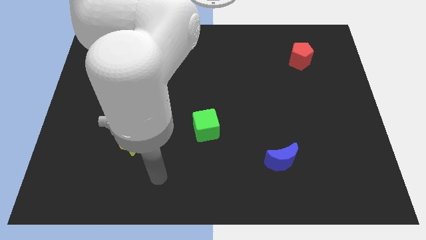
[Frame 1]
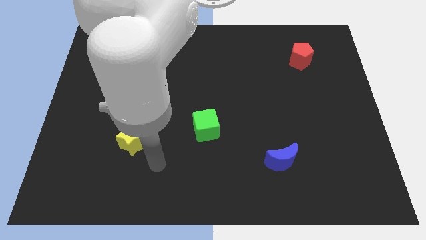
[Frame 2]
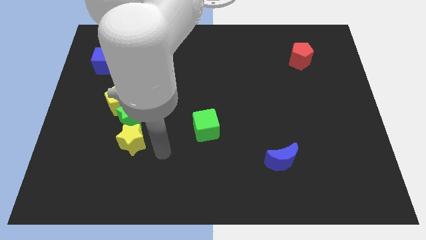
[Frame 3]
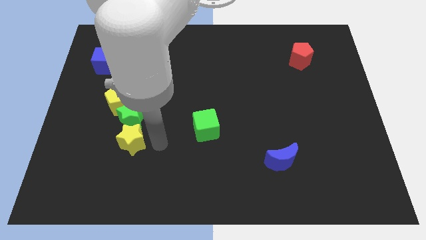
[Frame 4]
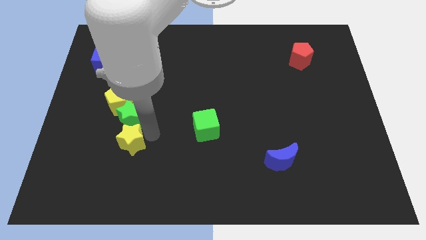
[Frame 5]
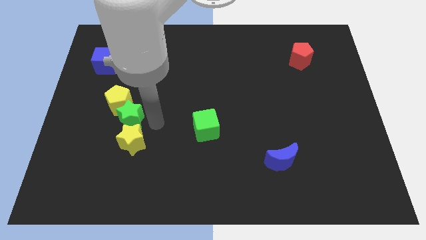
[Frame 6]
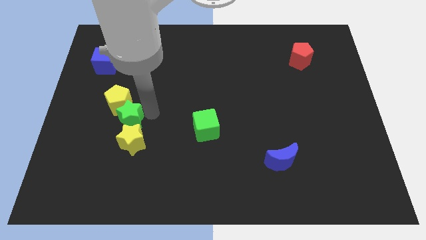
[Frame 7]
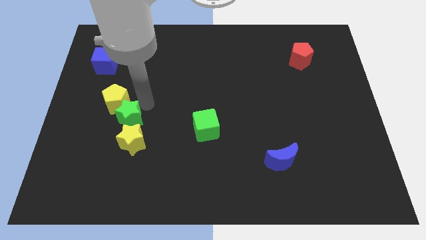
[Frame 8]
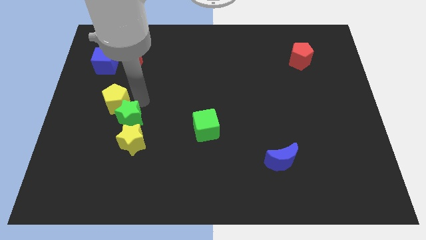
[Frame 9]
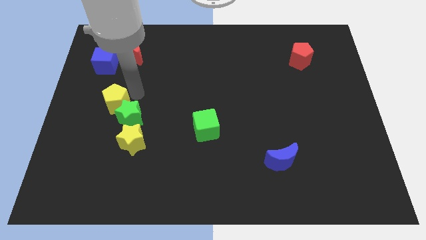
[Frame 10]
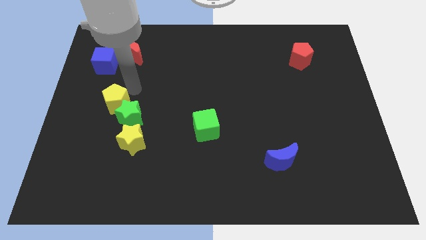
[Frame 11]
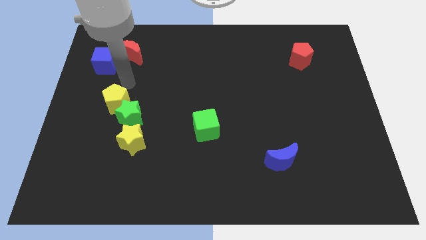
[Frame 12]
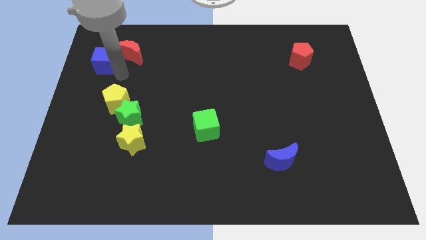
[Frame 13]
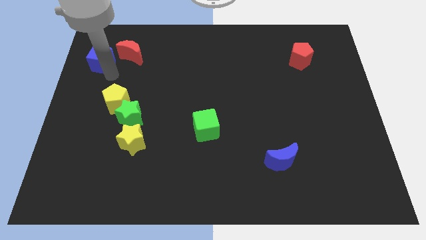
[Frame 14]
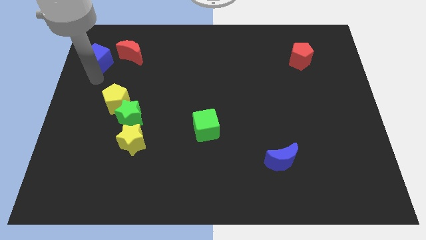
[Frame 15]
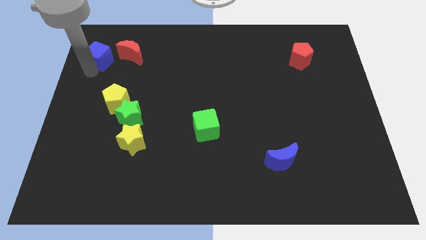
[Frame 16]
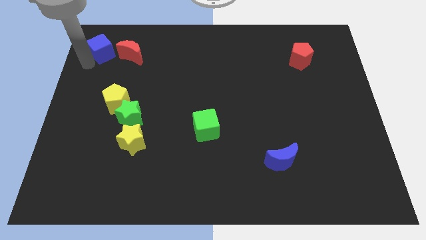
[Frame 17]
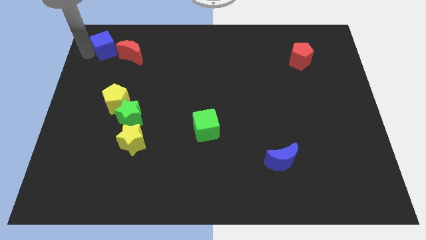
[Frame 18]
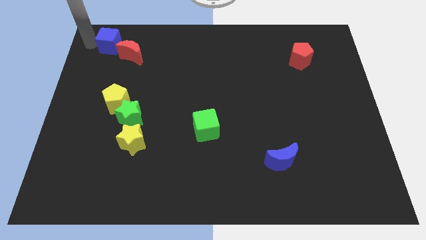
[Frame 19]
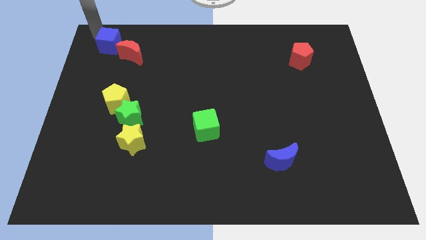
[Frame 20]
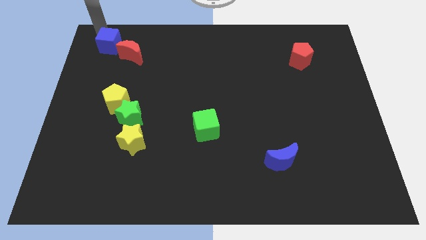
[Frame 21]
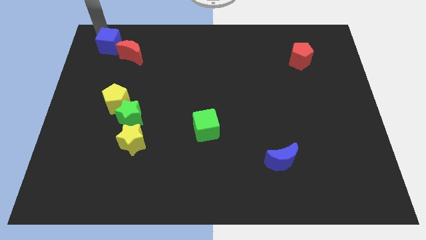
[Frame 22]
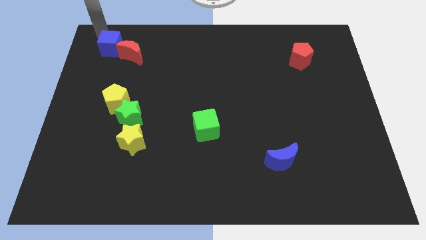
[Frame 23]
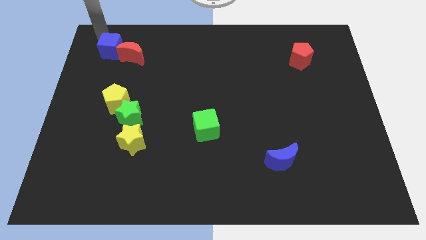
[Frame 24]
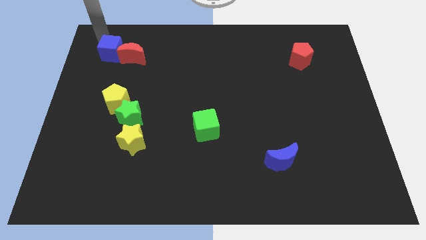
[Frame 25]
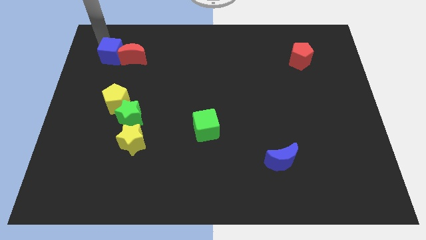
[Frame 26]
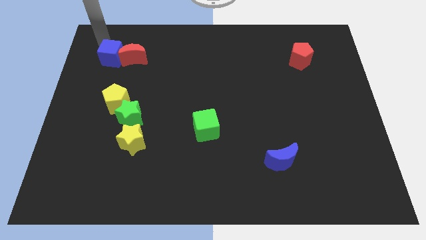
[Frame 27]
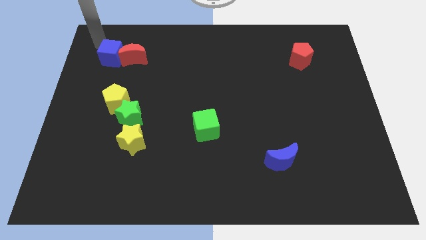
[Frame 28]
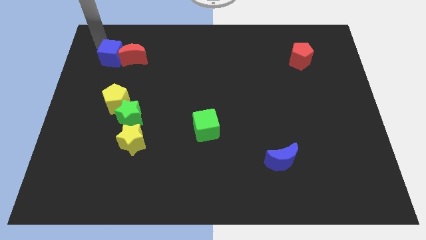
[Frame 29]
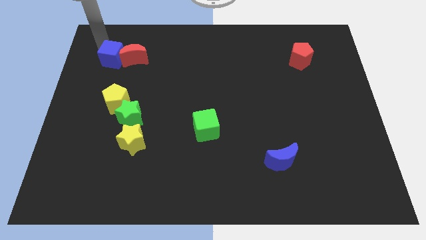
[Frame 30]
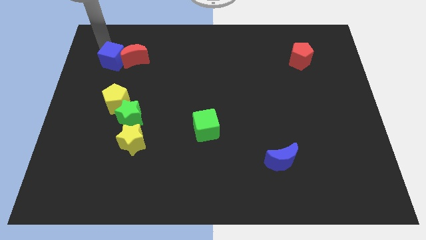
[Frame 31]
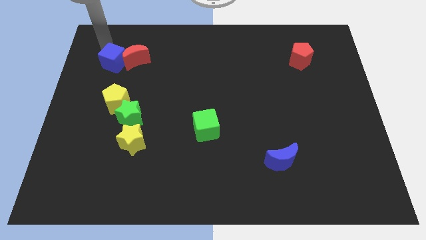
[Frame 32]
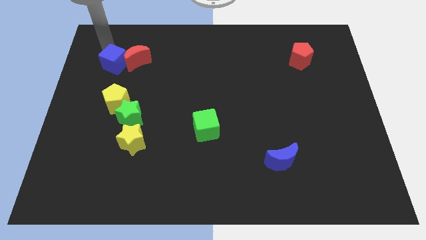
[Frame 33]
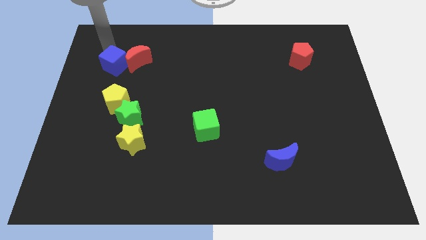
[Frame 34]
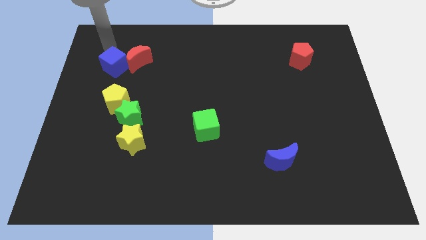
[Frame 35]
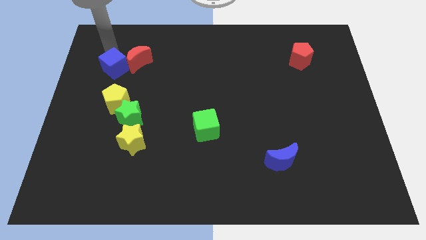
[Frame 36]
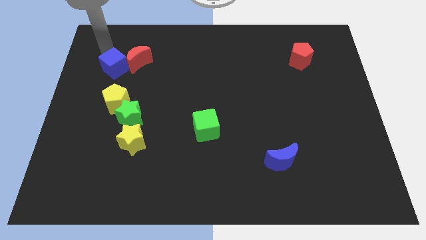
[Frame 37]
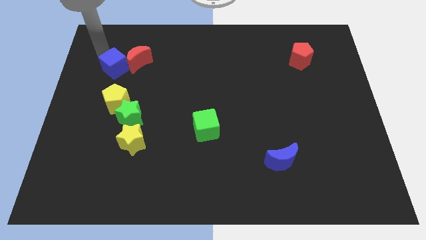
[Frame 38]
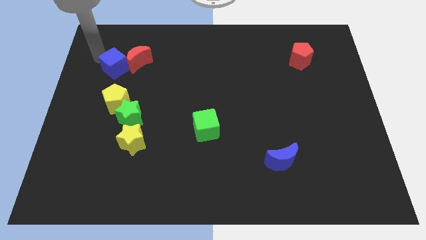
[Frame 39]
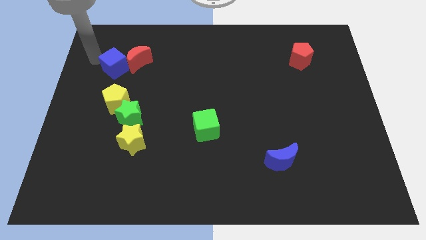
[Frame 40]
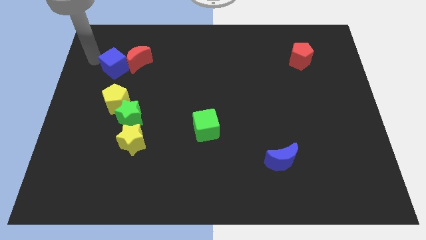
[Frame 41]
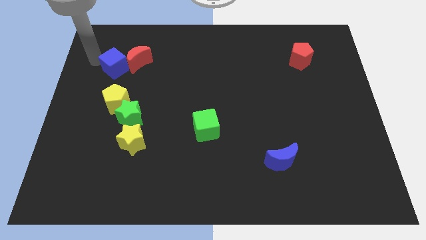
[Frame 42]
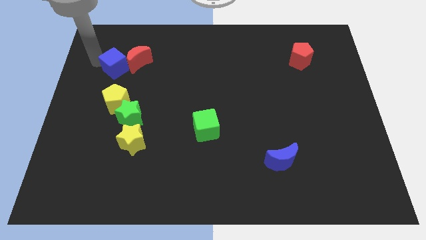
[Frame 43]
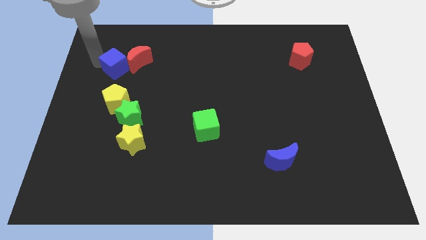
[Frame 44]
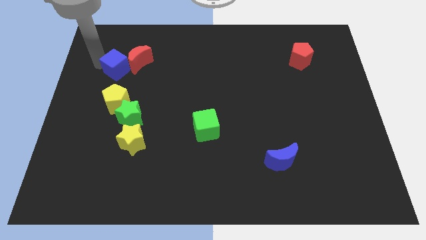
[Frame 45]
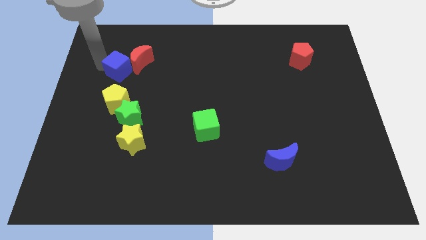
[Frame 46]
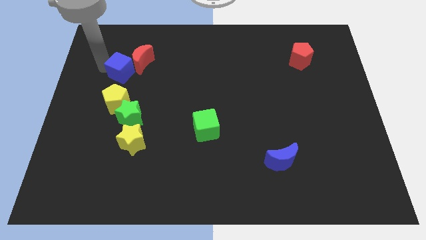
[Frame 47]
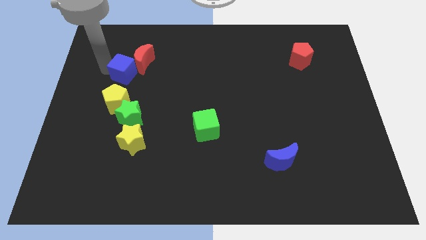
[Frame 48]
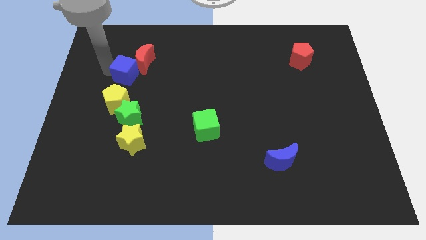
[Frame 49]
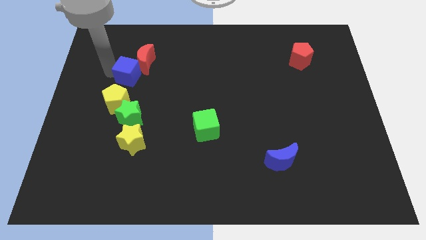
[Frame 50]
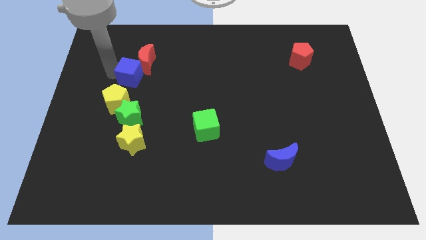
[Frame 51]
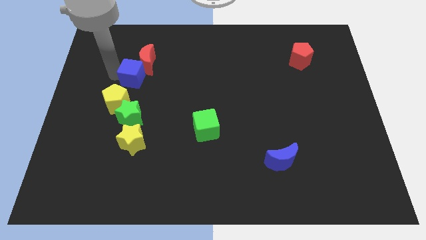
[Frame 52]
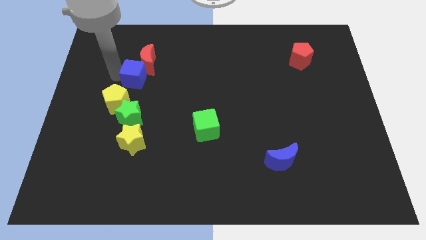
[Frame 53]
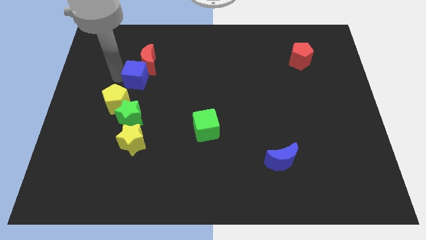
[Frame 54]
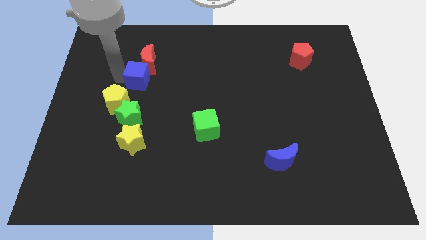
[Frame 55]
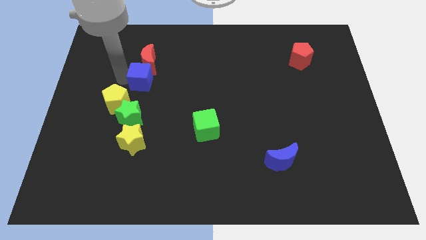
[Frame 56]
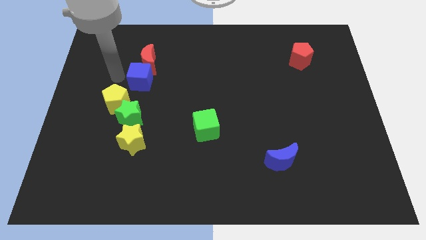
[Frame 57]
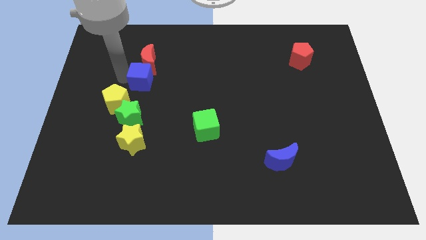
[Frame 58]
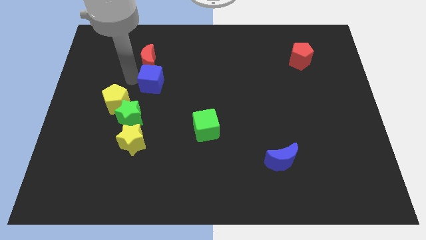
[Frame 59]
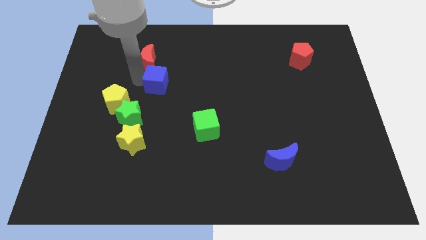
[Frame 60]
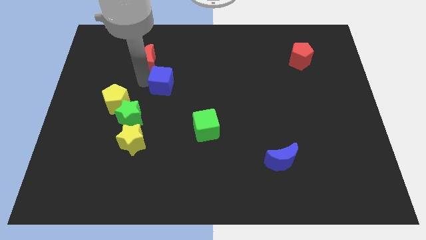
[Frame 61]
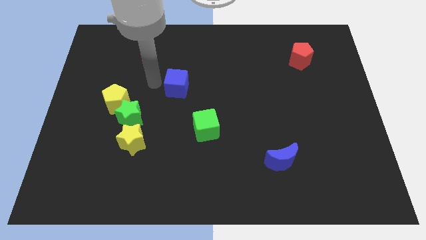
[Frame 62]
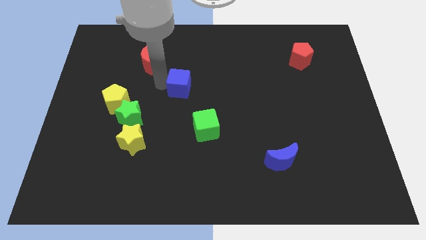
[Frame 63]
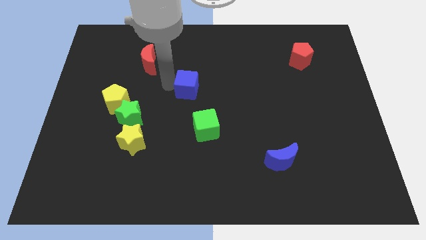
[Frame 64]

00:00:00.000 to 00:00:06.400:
push the blue cube to the top side of the green cube
